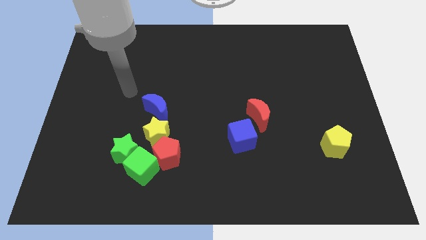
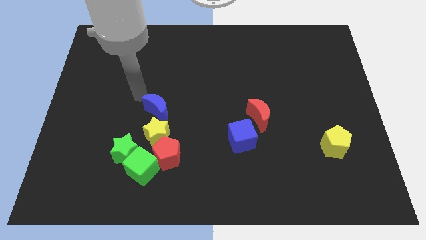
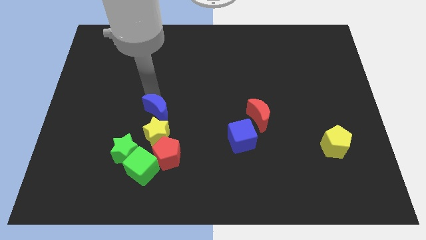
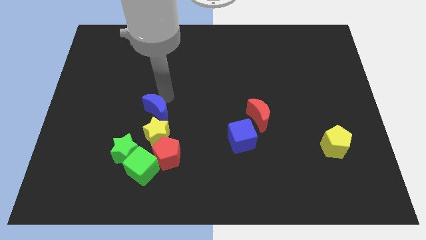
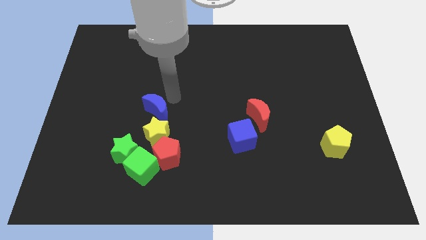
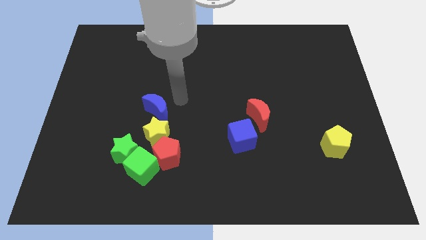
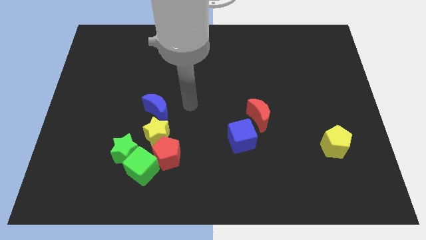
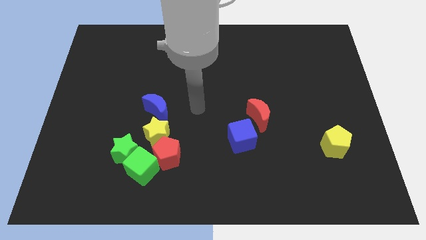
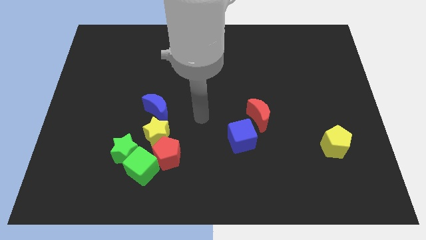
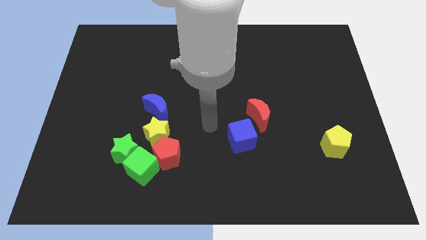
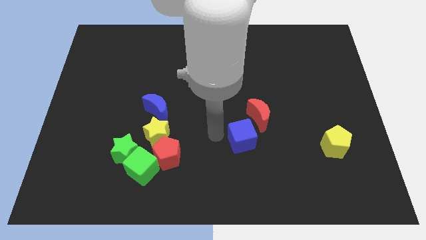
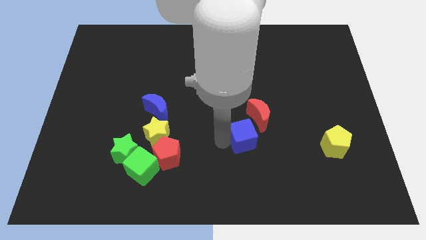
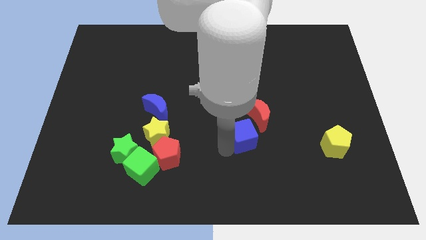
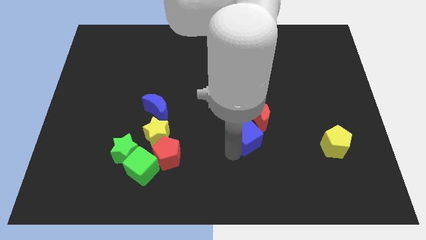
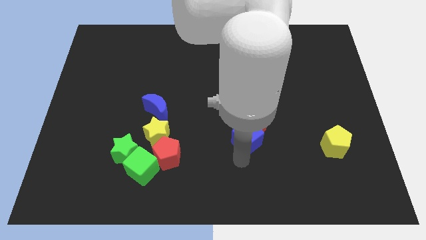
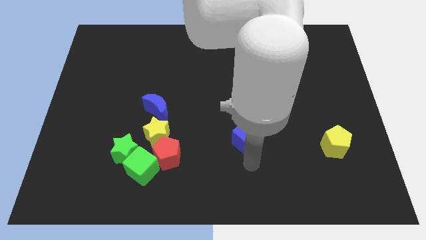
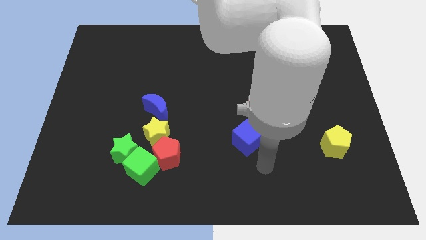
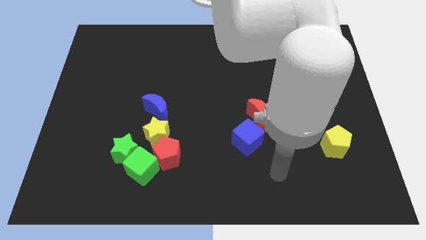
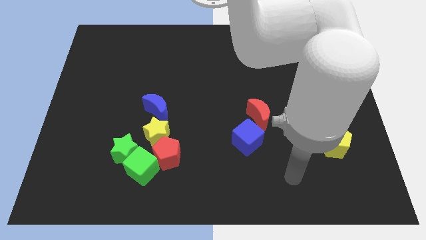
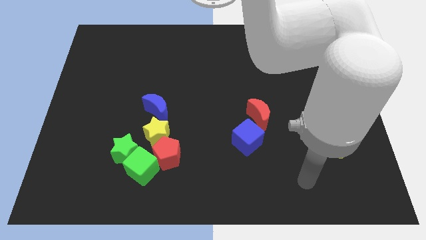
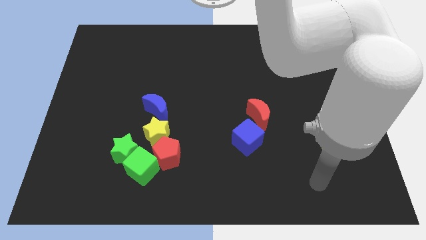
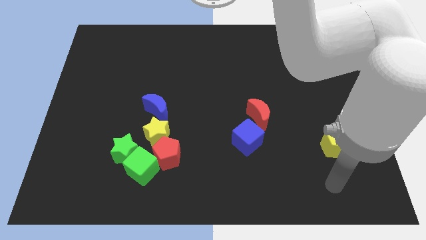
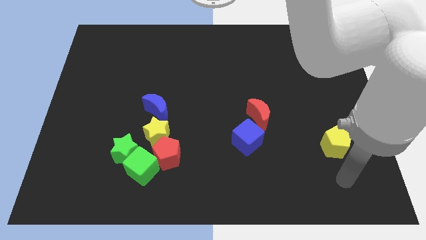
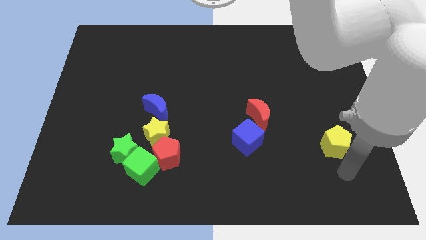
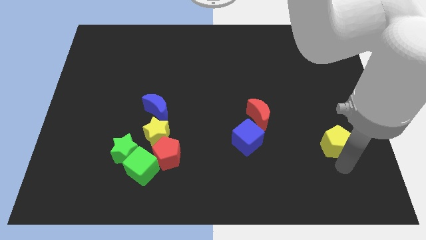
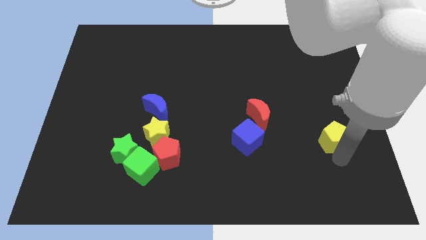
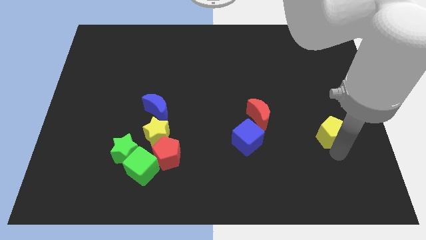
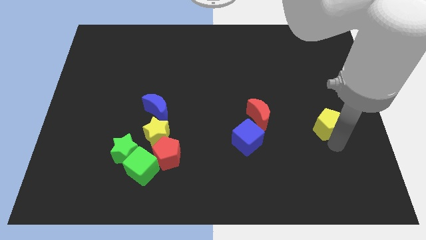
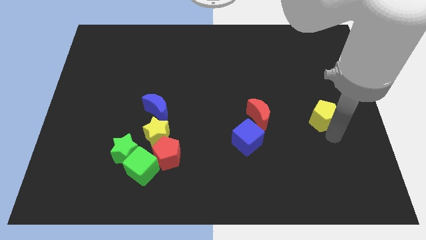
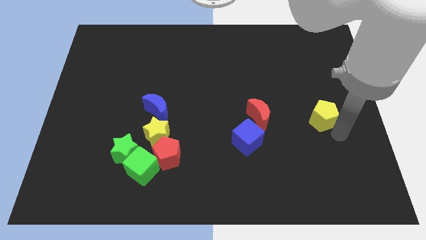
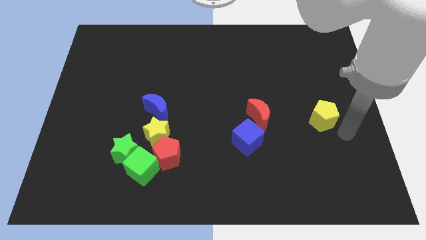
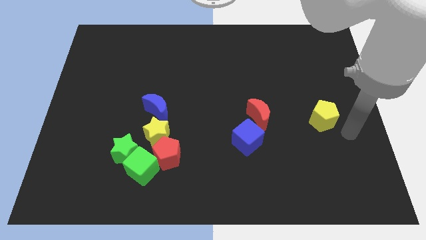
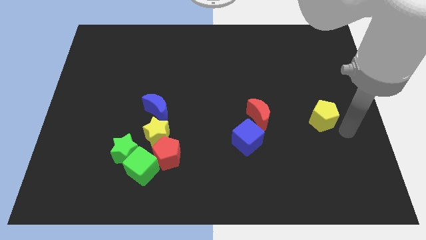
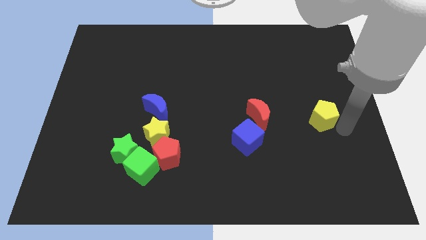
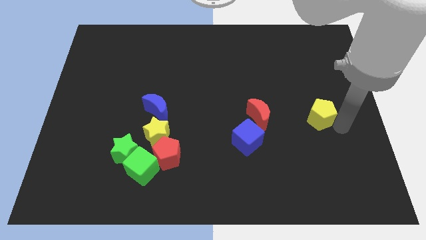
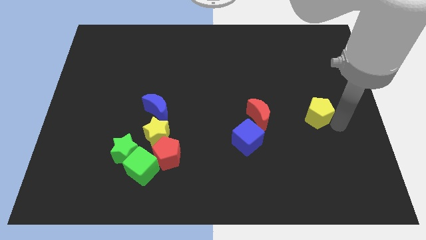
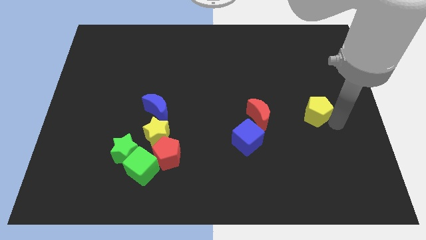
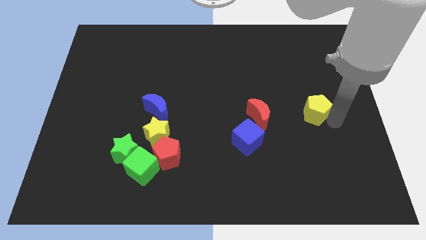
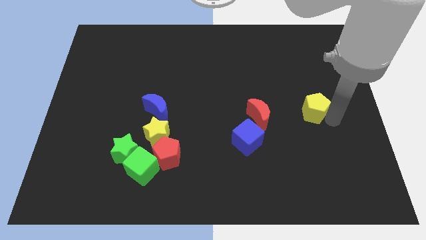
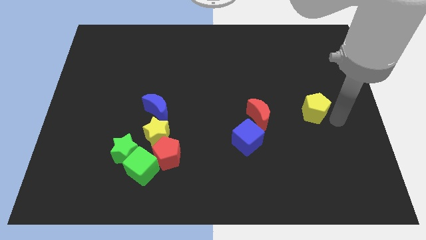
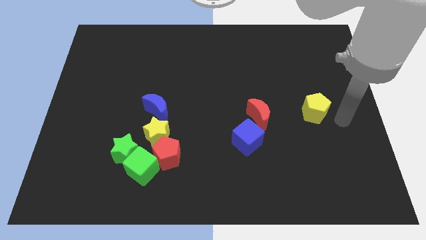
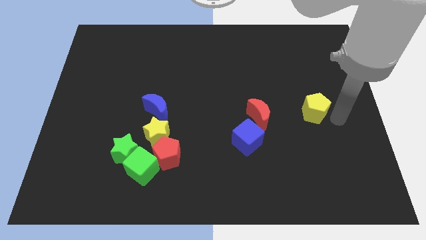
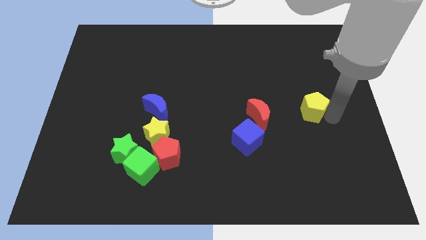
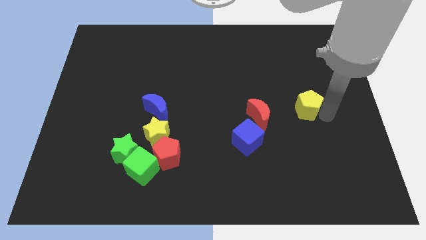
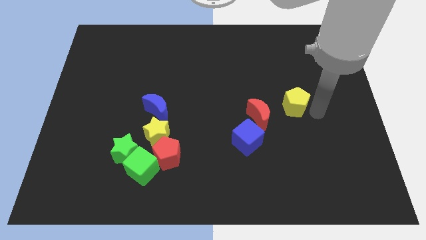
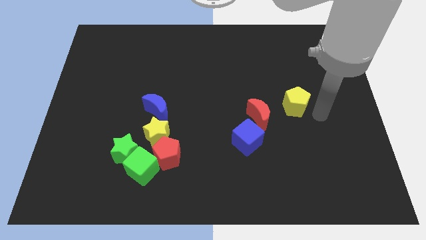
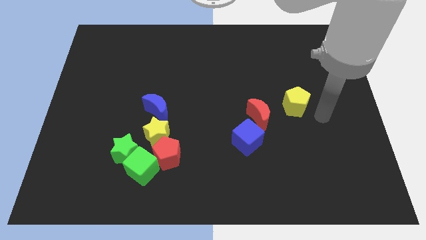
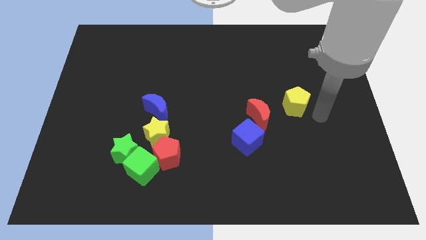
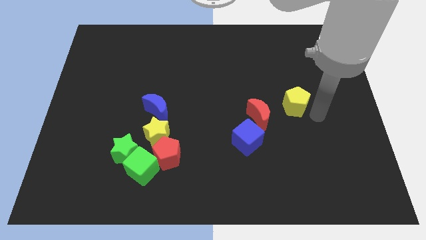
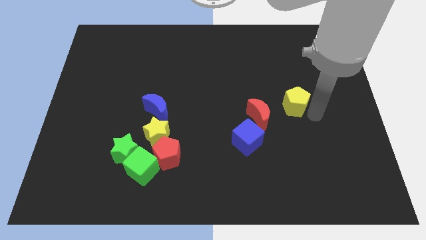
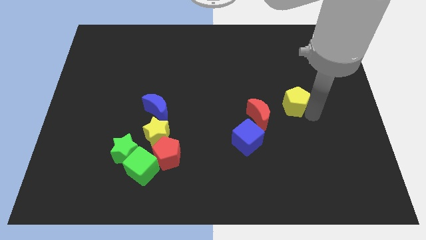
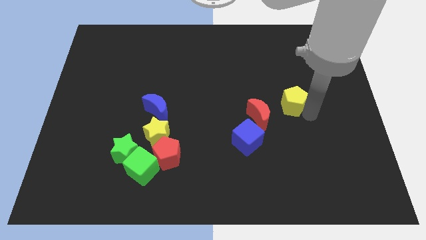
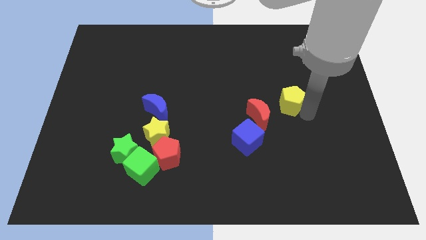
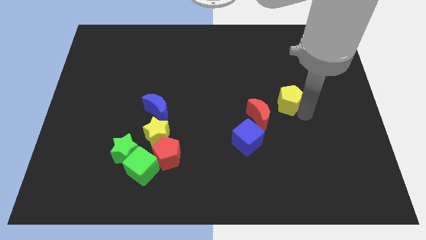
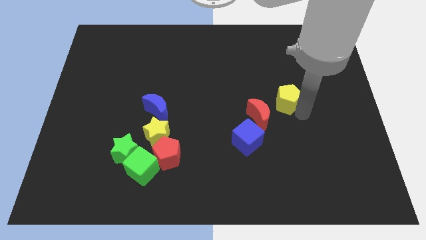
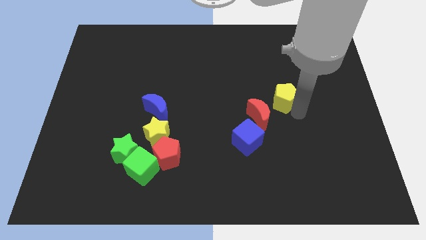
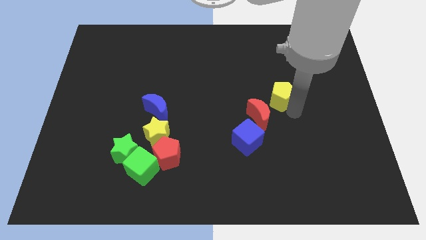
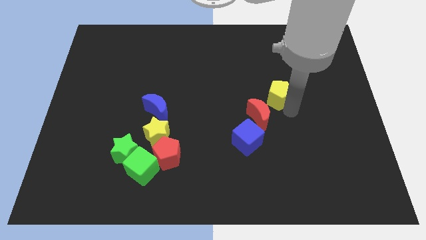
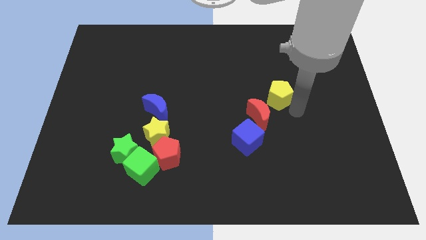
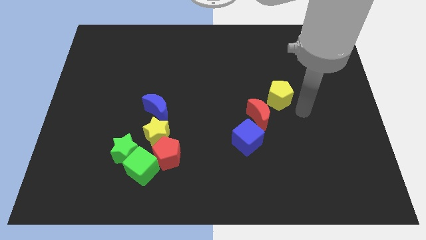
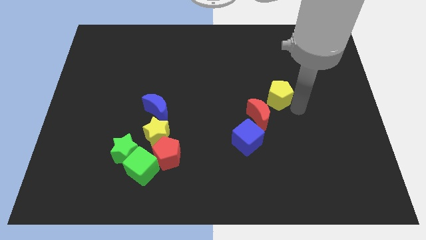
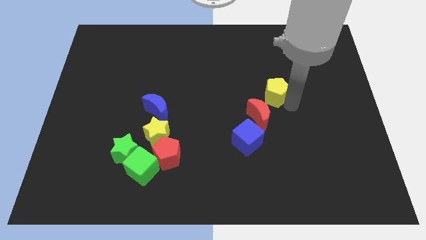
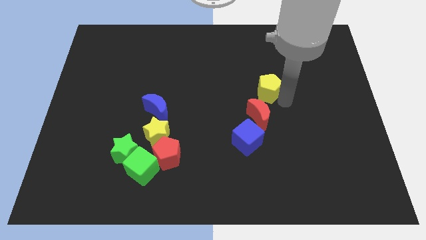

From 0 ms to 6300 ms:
push the yellow pentagon diagonally up and left

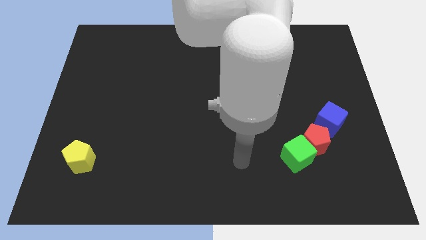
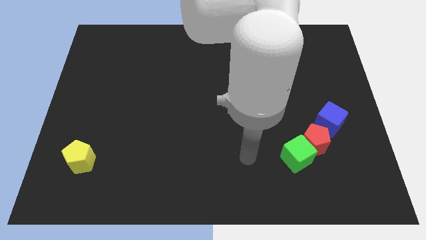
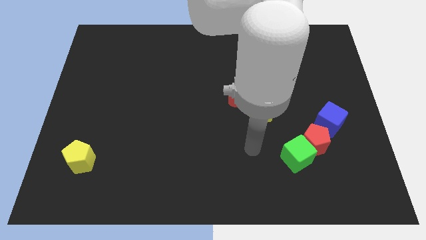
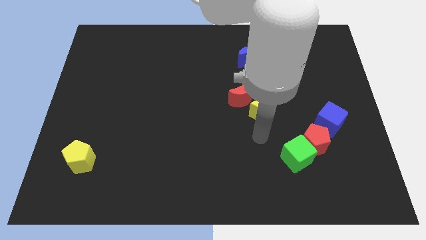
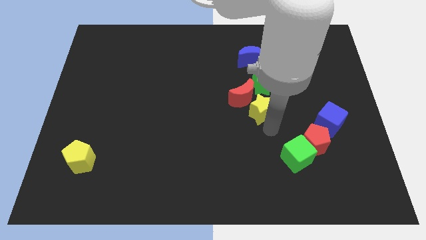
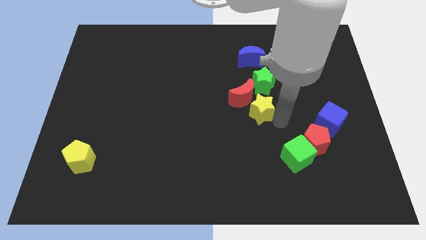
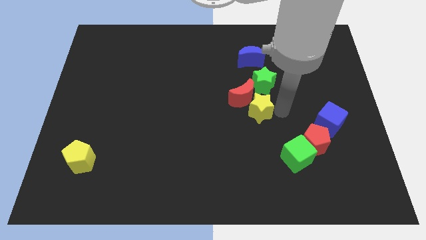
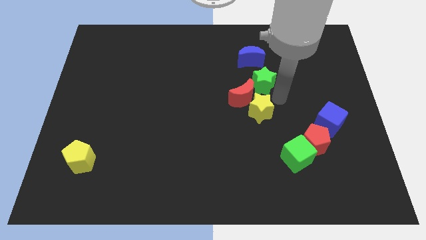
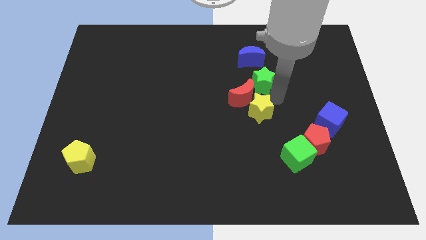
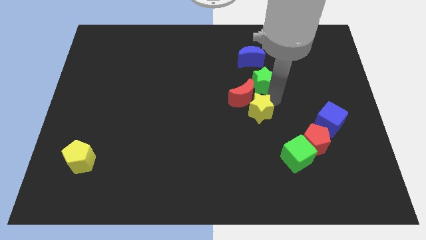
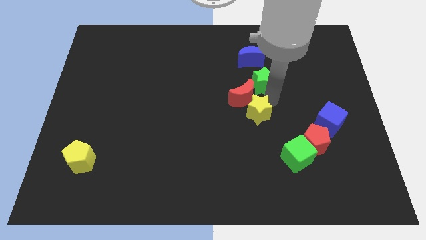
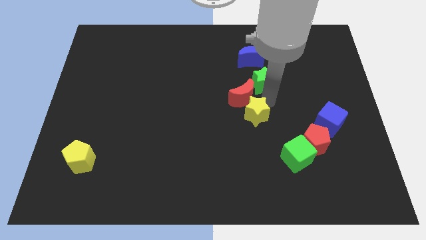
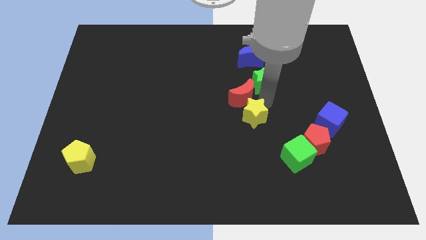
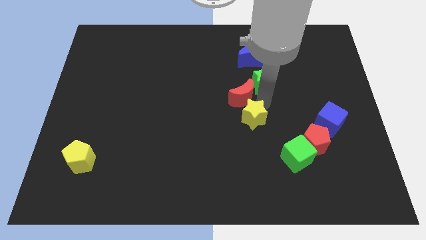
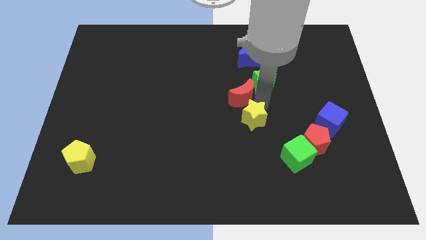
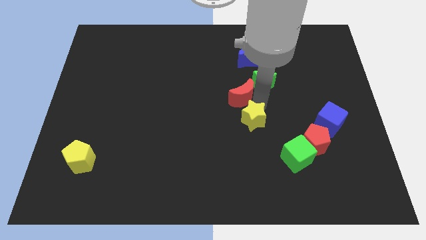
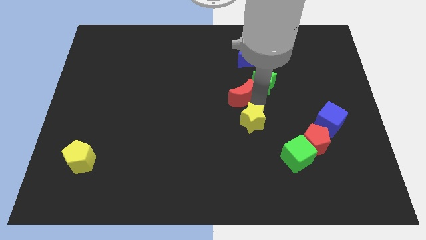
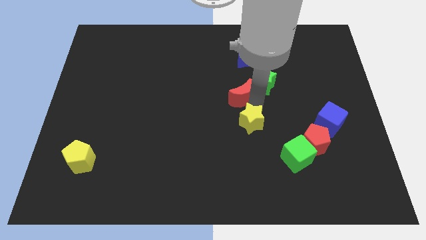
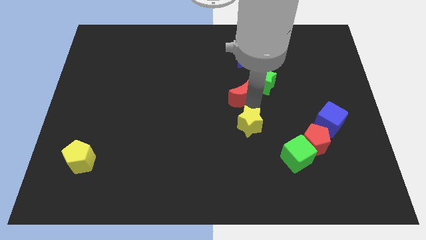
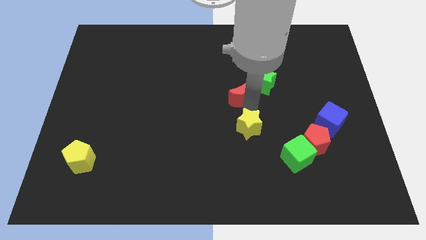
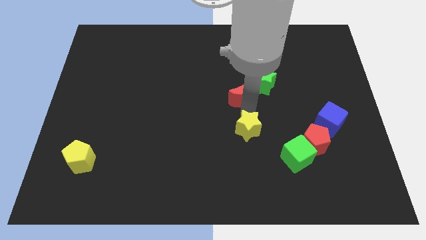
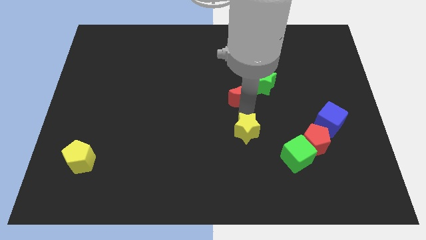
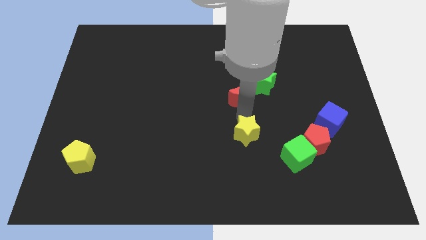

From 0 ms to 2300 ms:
slightly push the yellow star diagonally down and left
